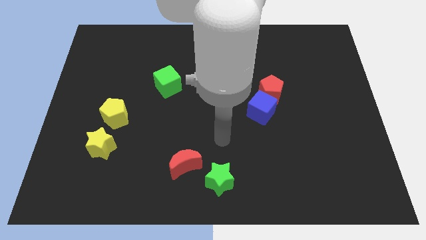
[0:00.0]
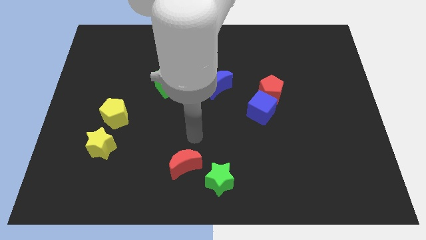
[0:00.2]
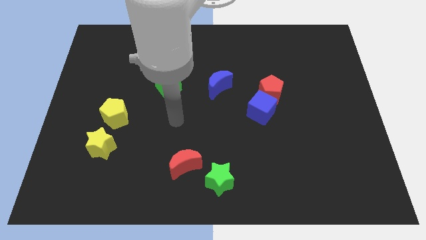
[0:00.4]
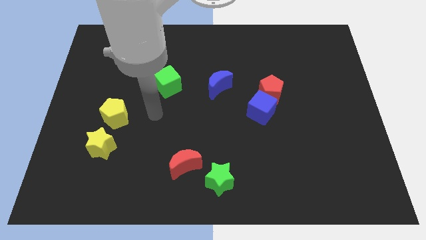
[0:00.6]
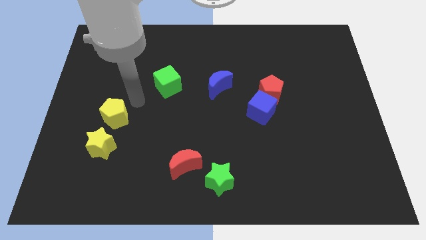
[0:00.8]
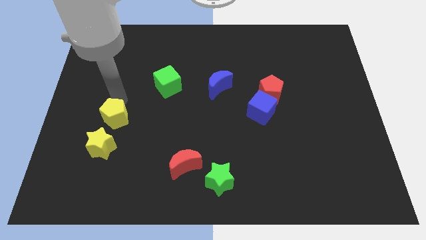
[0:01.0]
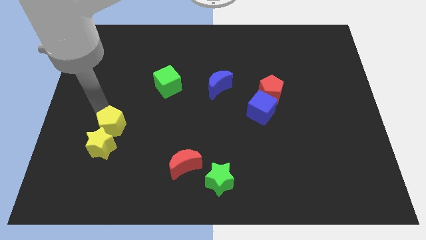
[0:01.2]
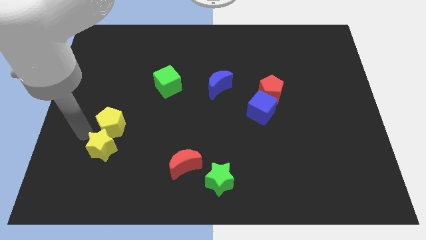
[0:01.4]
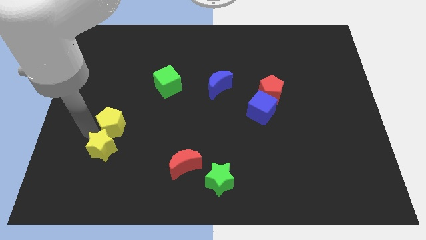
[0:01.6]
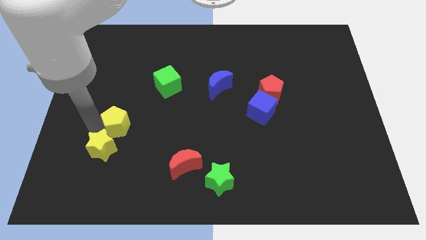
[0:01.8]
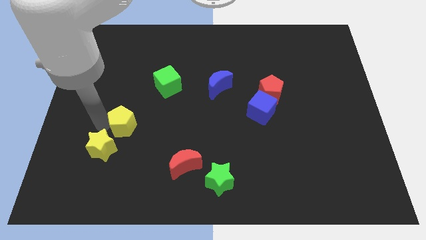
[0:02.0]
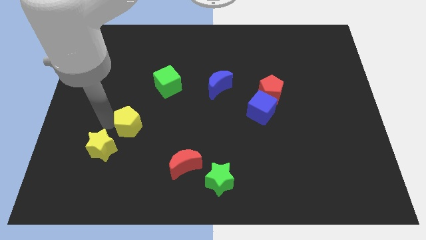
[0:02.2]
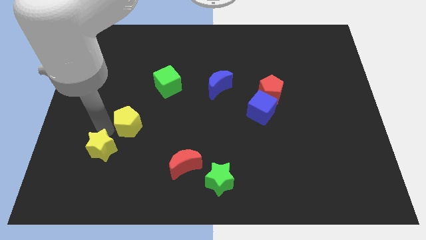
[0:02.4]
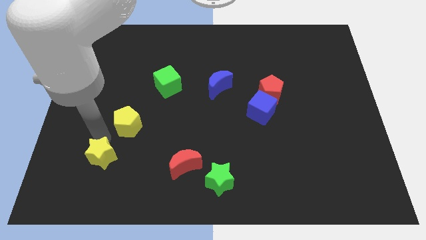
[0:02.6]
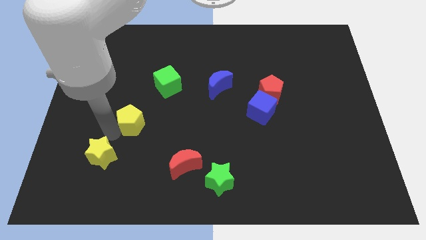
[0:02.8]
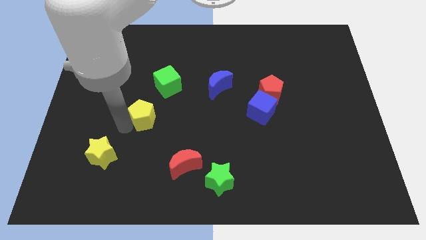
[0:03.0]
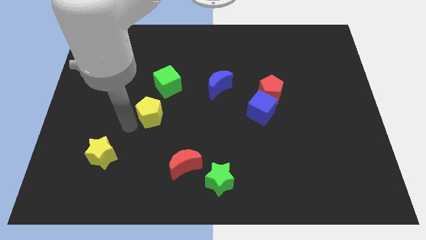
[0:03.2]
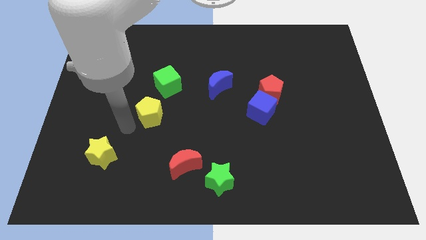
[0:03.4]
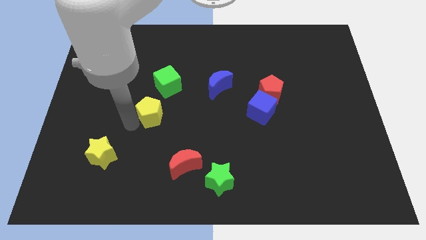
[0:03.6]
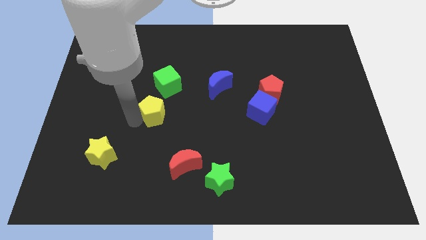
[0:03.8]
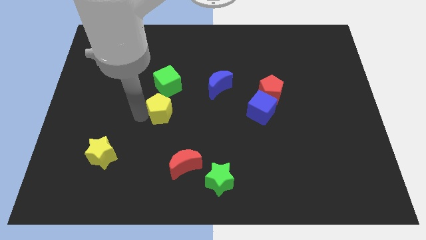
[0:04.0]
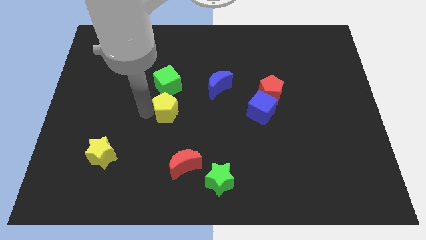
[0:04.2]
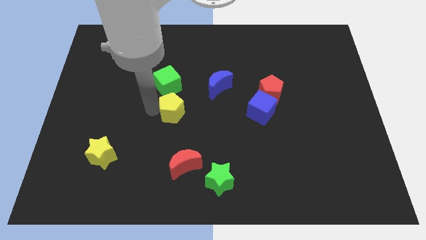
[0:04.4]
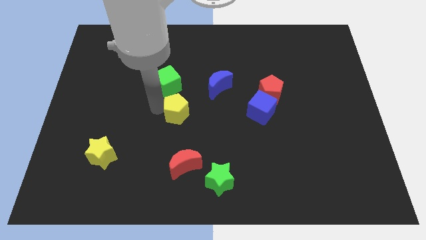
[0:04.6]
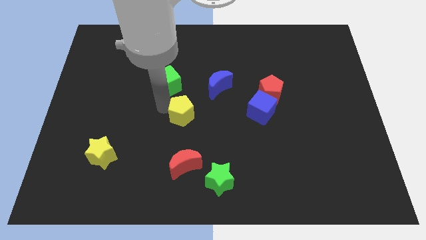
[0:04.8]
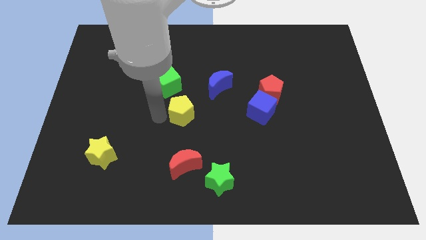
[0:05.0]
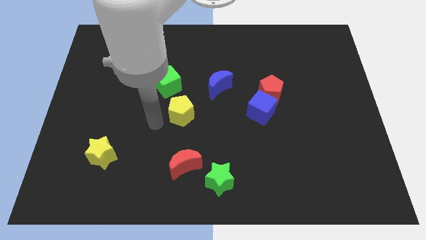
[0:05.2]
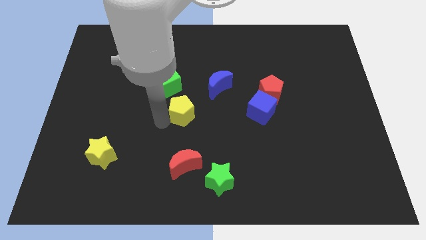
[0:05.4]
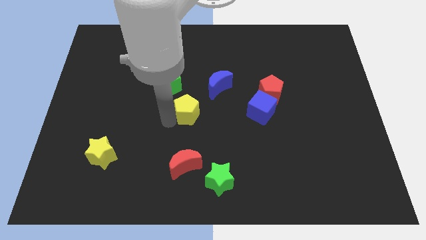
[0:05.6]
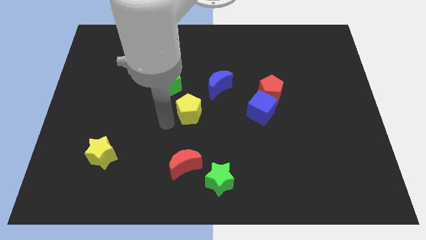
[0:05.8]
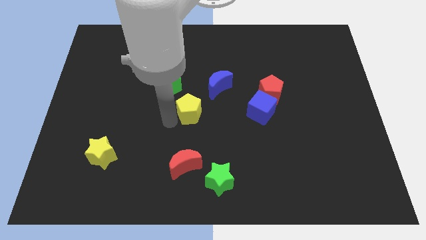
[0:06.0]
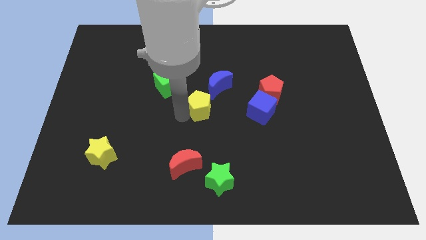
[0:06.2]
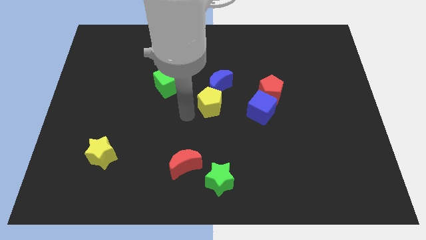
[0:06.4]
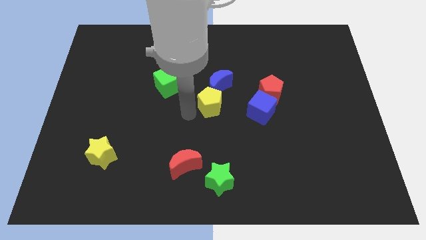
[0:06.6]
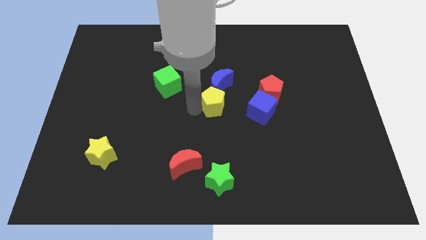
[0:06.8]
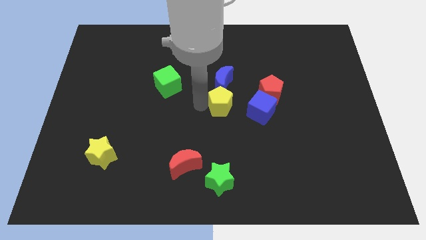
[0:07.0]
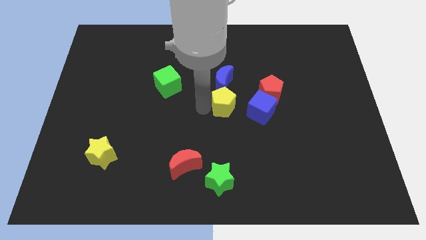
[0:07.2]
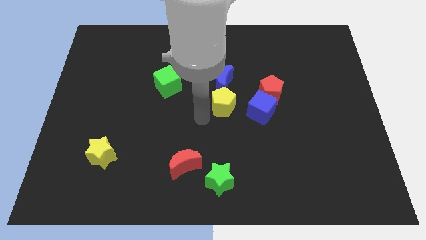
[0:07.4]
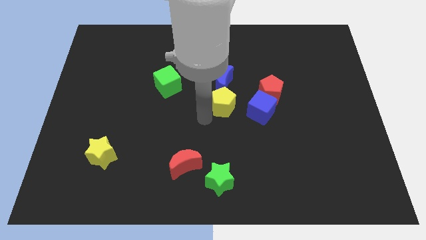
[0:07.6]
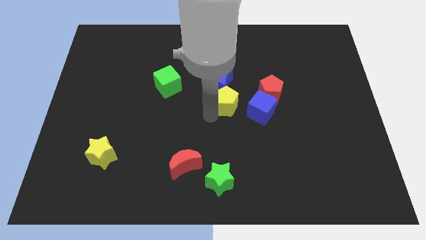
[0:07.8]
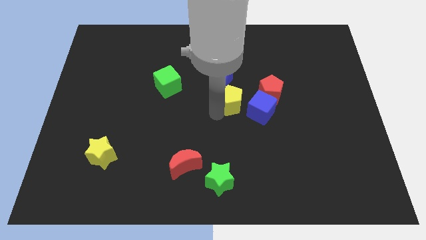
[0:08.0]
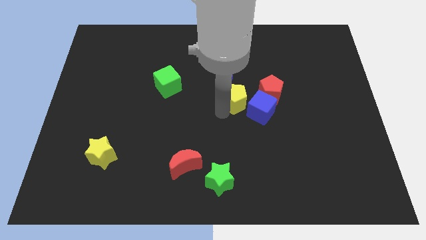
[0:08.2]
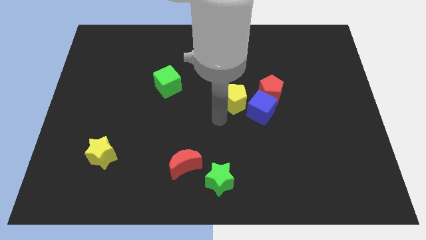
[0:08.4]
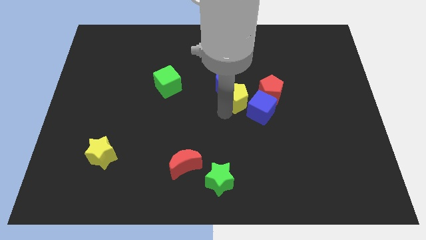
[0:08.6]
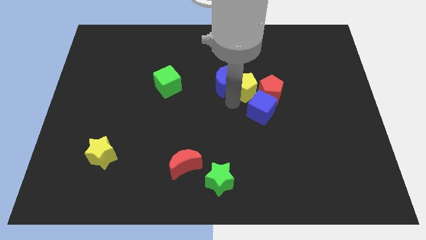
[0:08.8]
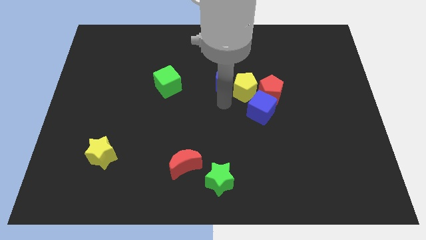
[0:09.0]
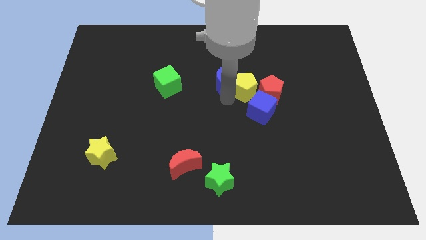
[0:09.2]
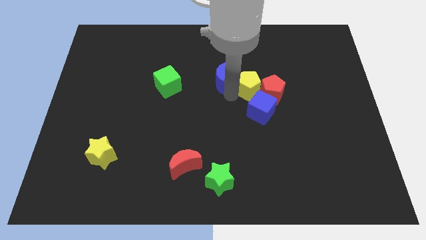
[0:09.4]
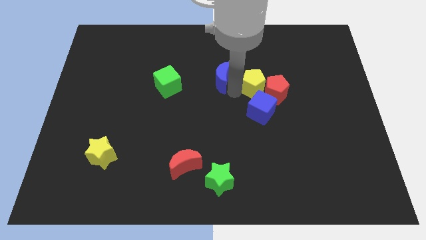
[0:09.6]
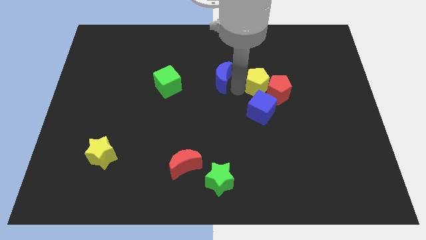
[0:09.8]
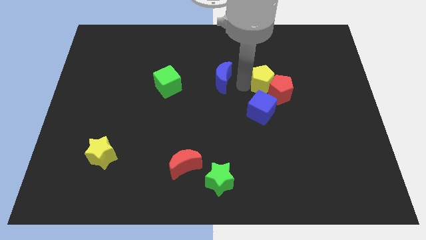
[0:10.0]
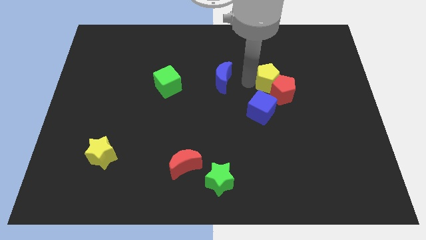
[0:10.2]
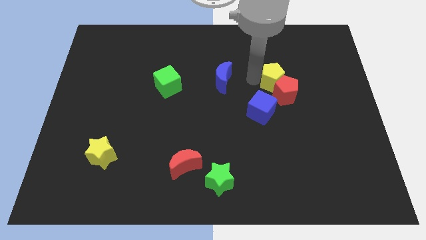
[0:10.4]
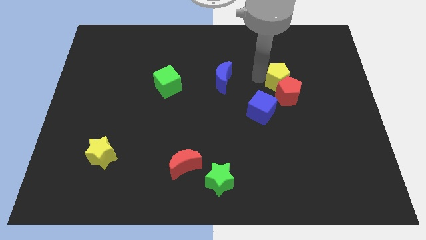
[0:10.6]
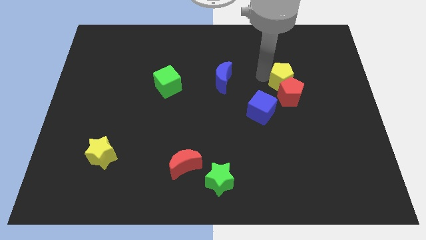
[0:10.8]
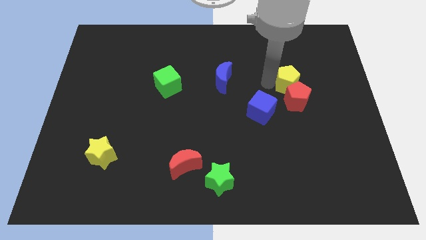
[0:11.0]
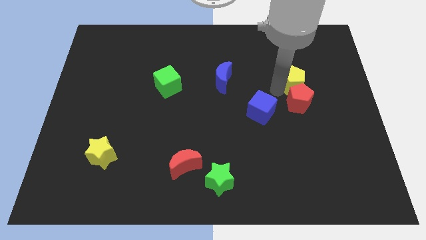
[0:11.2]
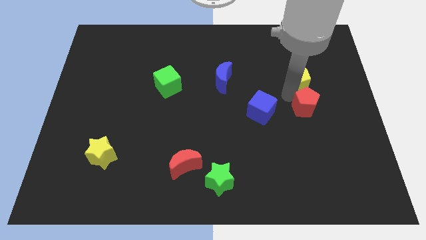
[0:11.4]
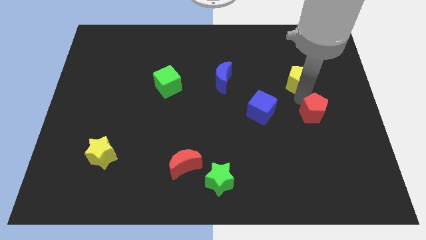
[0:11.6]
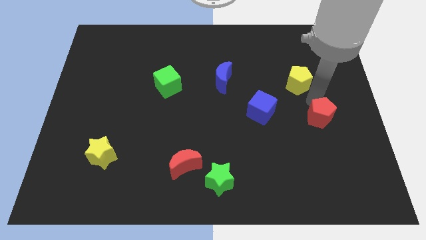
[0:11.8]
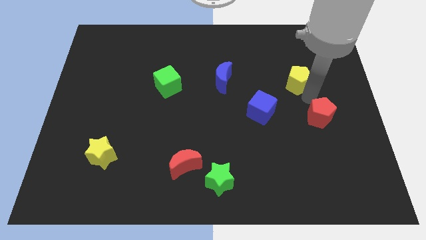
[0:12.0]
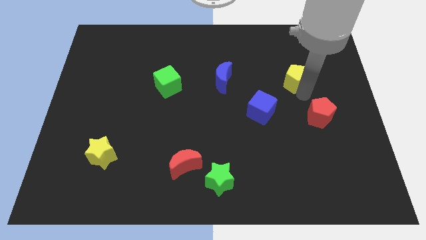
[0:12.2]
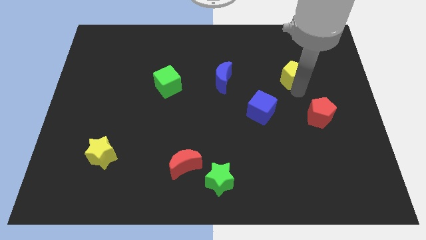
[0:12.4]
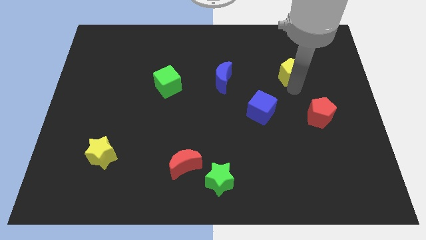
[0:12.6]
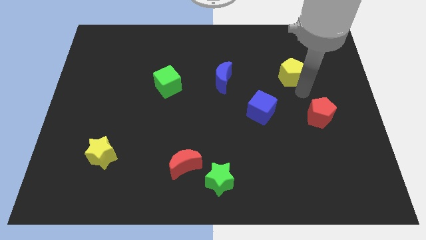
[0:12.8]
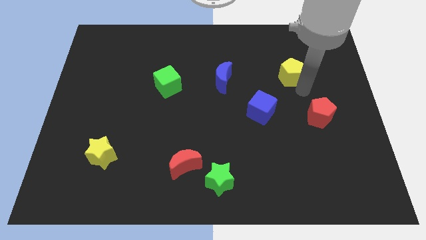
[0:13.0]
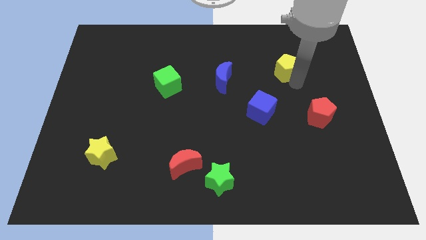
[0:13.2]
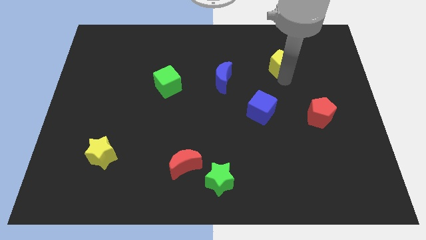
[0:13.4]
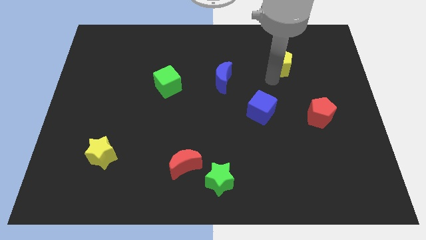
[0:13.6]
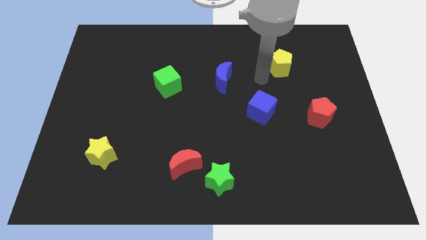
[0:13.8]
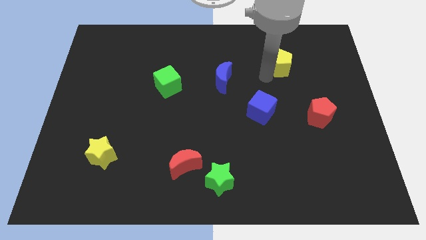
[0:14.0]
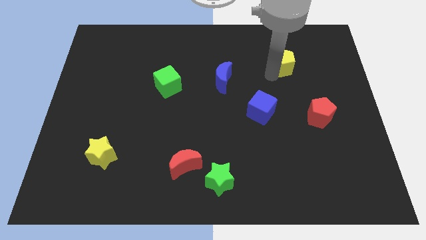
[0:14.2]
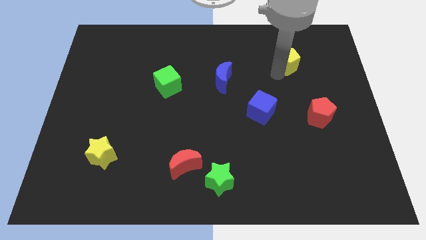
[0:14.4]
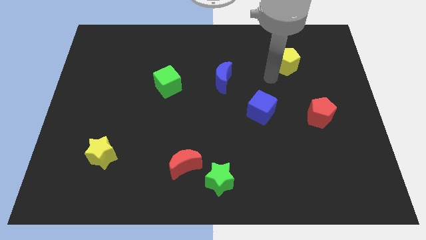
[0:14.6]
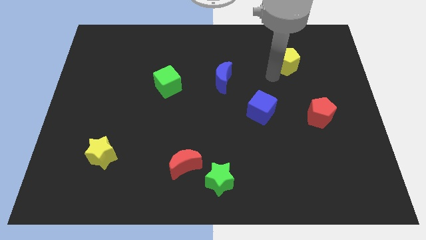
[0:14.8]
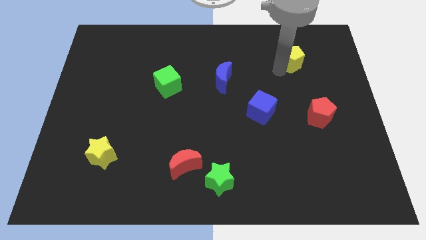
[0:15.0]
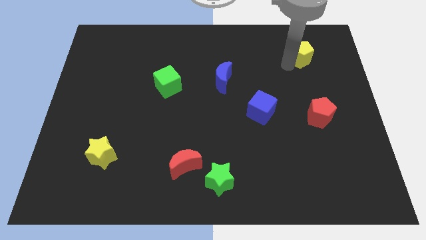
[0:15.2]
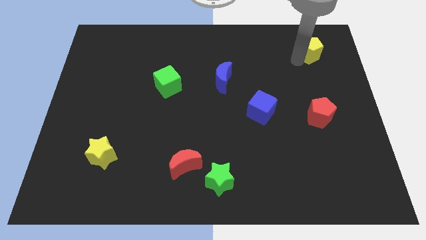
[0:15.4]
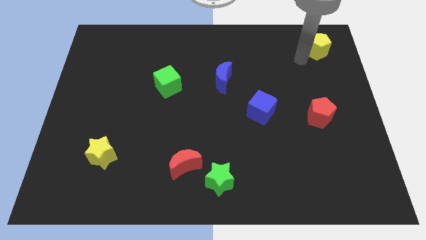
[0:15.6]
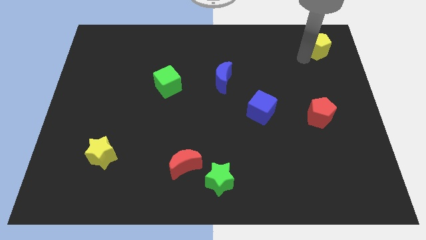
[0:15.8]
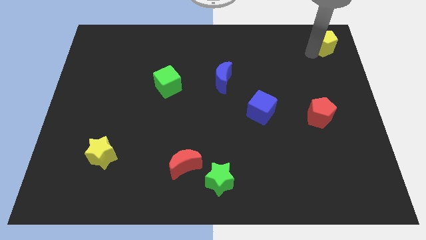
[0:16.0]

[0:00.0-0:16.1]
slide the yellow pentagon to the upper right corner
